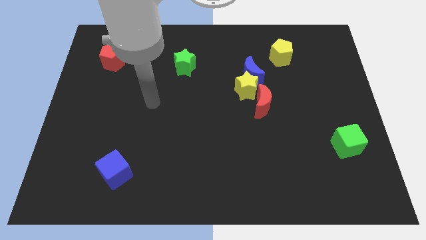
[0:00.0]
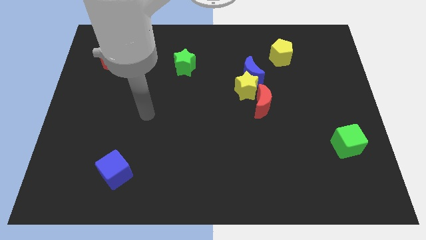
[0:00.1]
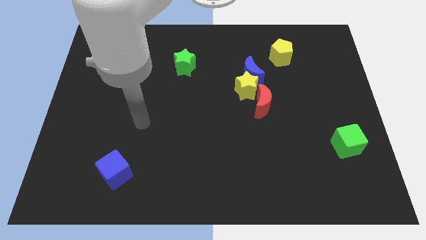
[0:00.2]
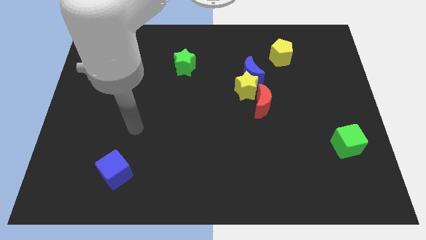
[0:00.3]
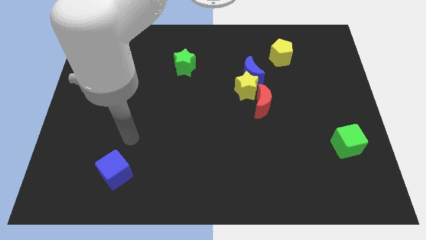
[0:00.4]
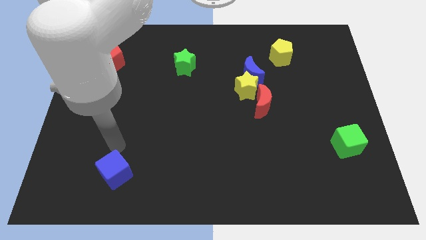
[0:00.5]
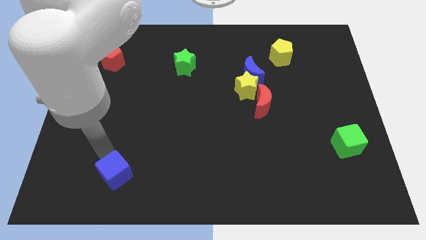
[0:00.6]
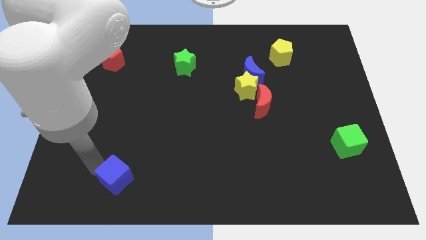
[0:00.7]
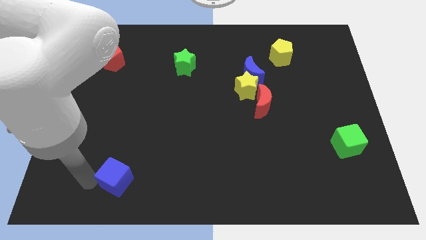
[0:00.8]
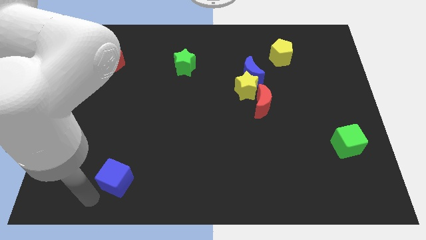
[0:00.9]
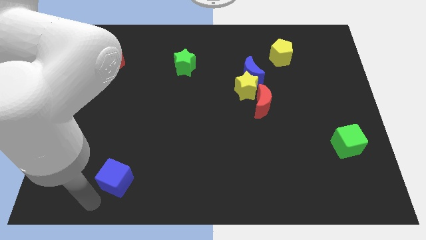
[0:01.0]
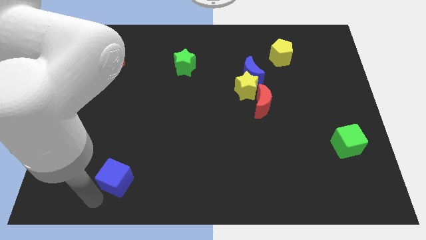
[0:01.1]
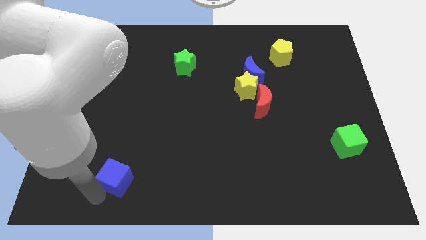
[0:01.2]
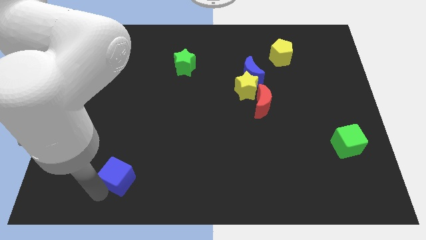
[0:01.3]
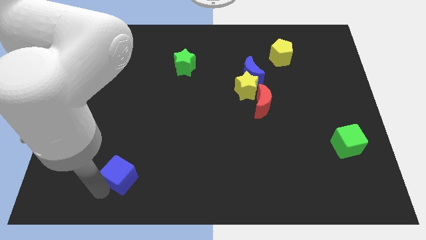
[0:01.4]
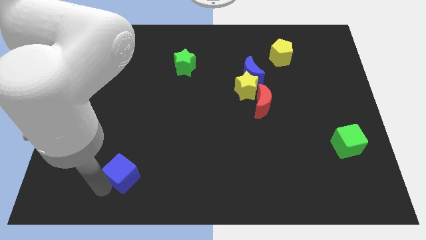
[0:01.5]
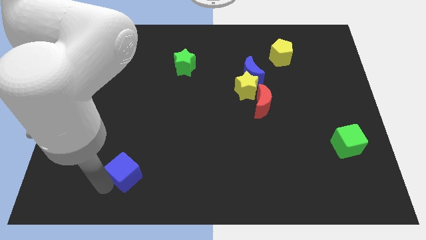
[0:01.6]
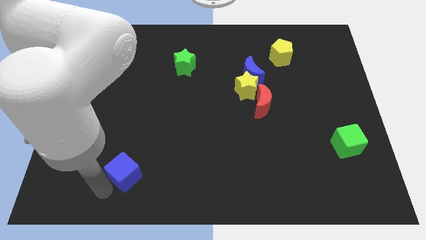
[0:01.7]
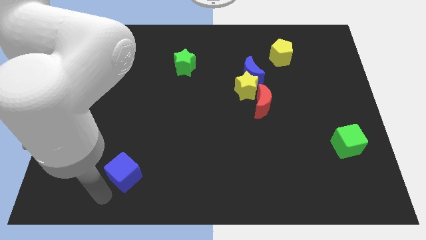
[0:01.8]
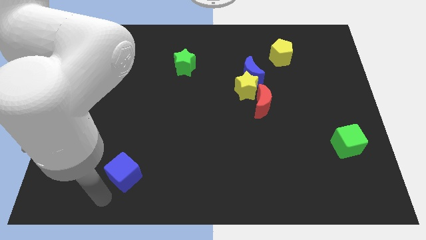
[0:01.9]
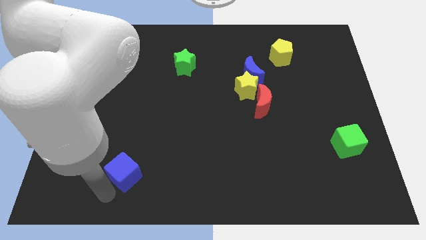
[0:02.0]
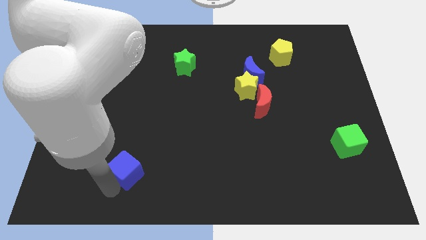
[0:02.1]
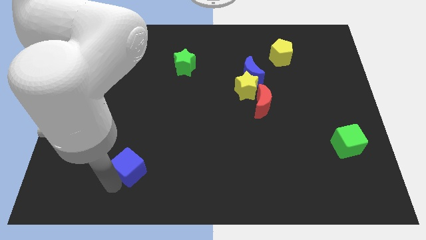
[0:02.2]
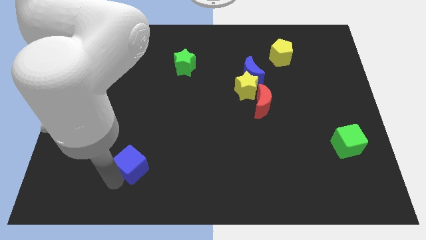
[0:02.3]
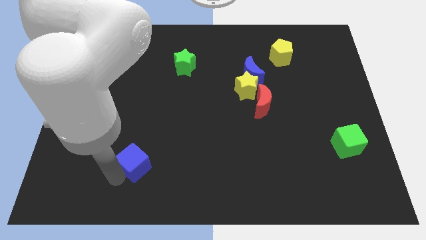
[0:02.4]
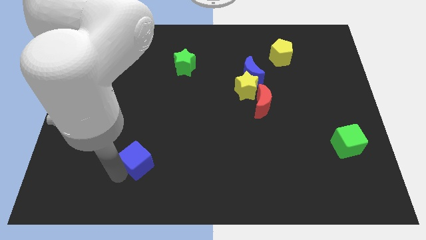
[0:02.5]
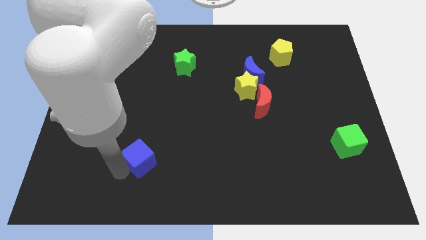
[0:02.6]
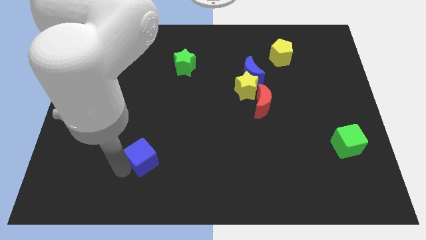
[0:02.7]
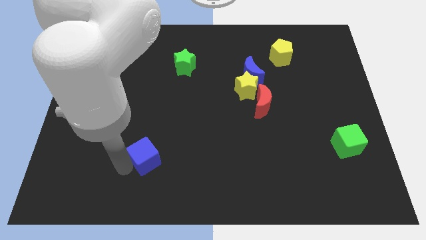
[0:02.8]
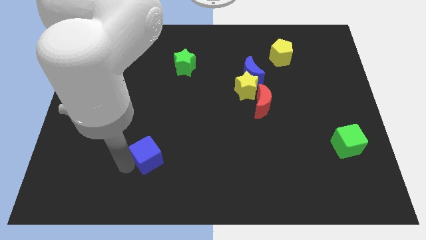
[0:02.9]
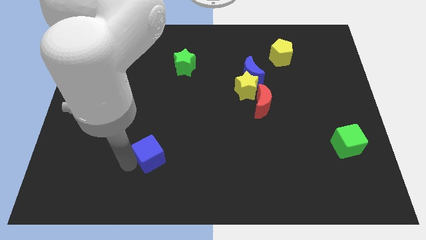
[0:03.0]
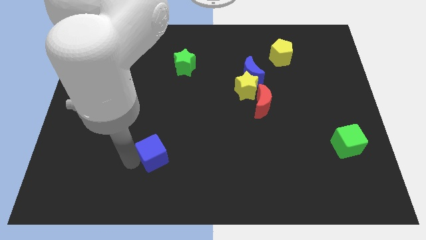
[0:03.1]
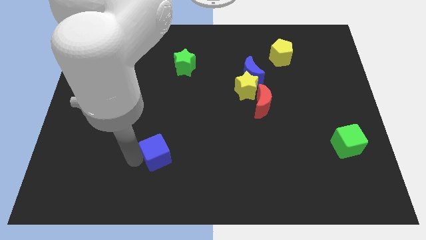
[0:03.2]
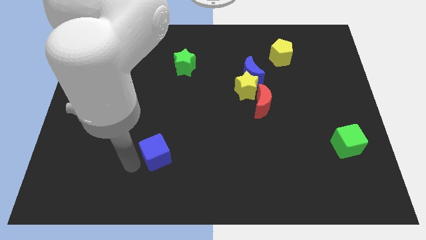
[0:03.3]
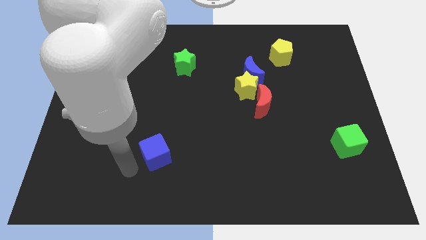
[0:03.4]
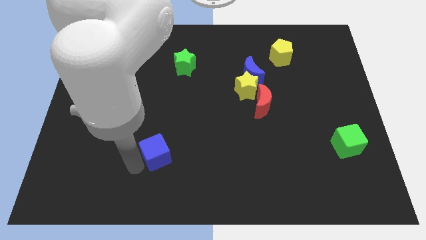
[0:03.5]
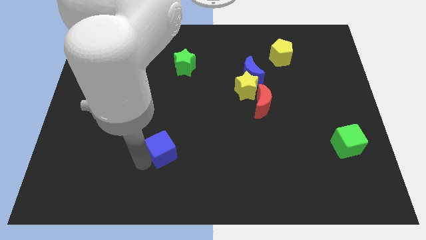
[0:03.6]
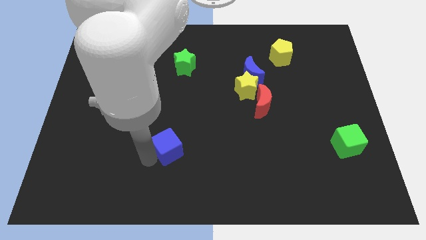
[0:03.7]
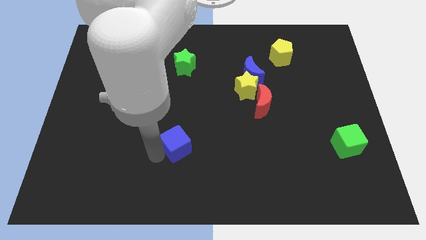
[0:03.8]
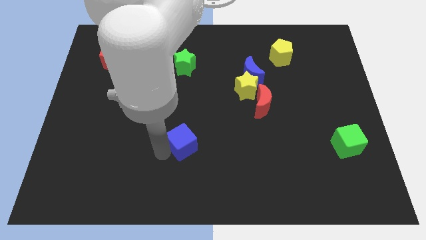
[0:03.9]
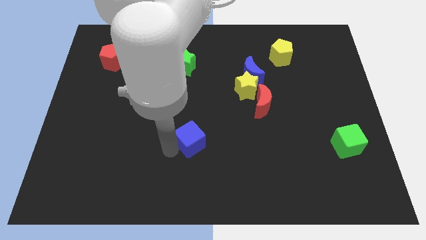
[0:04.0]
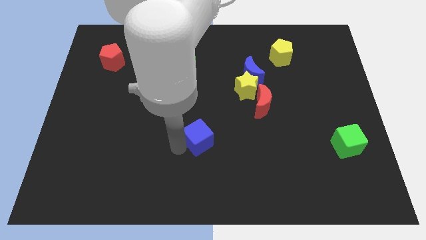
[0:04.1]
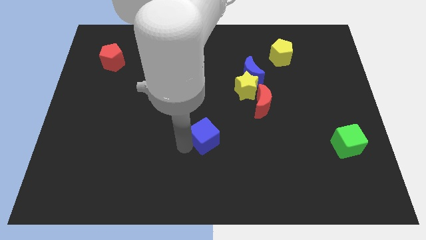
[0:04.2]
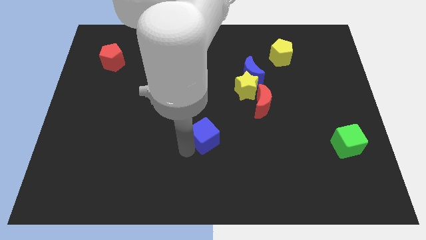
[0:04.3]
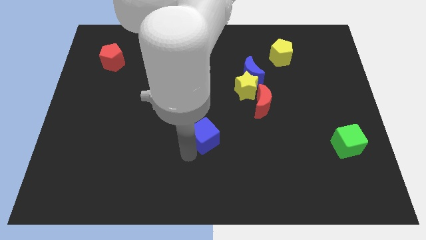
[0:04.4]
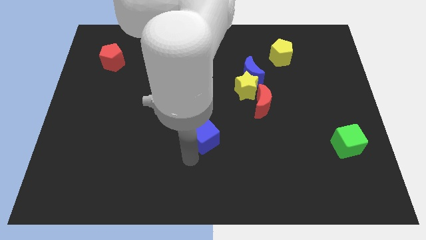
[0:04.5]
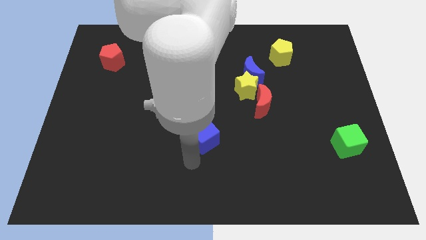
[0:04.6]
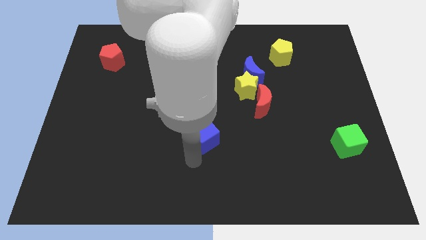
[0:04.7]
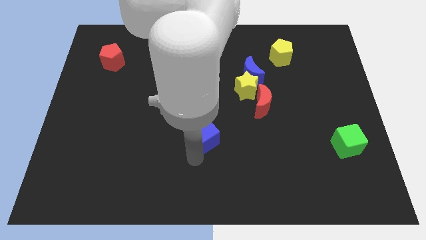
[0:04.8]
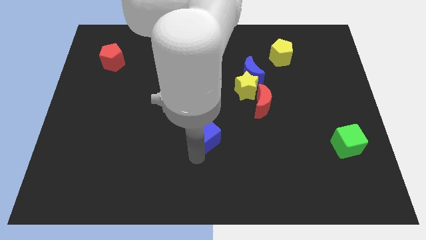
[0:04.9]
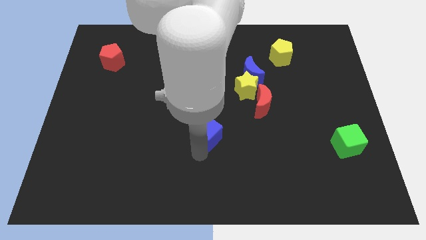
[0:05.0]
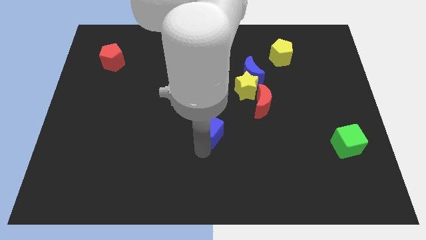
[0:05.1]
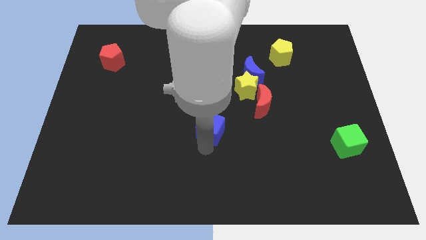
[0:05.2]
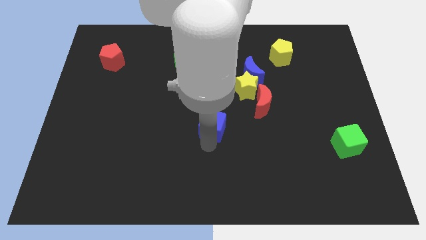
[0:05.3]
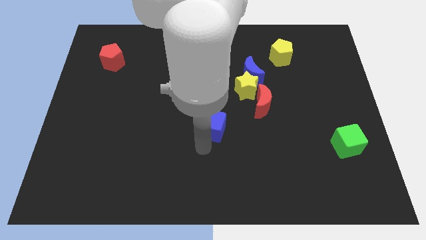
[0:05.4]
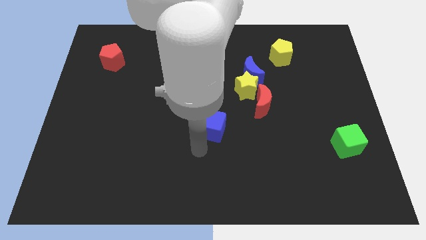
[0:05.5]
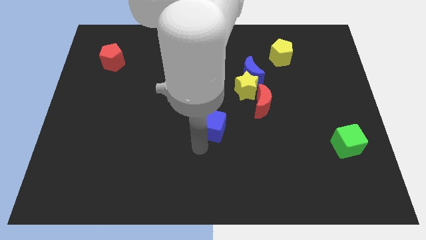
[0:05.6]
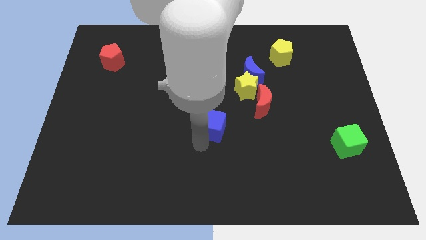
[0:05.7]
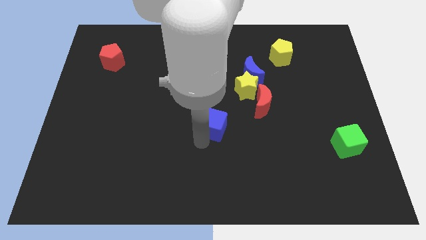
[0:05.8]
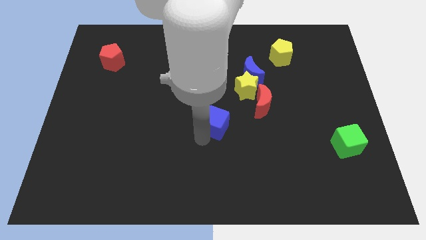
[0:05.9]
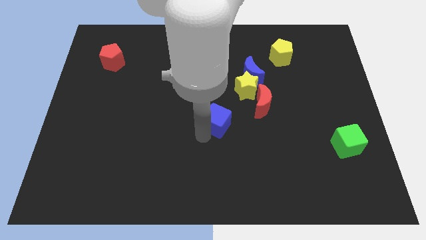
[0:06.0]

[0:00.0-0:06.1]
slide the blue cube diagonally down and to the left of the yellow star

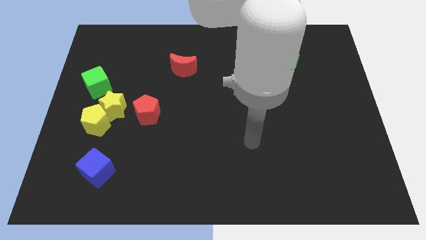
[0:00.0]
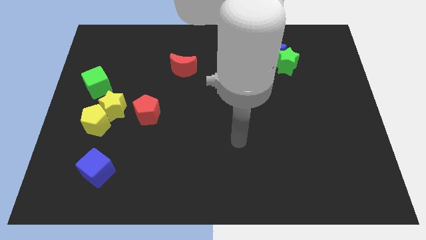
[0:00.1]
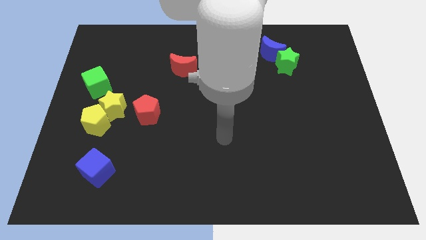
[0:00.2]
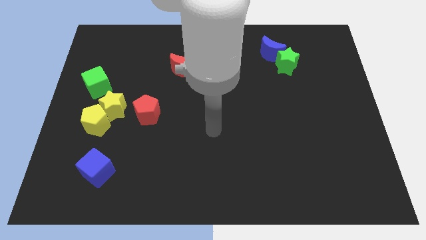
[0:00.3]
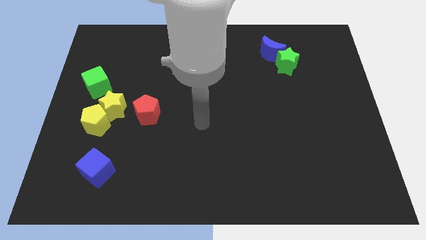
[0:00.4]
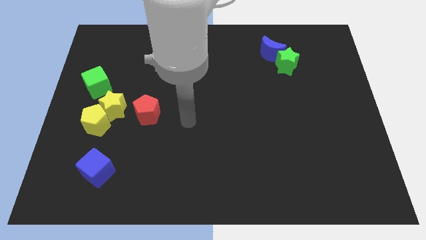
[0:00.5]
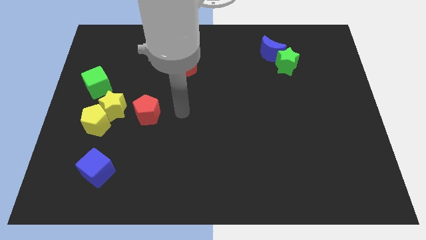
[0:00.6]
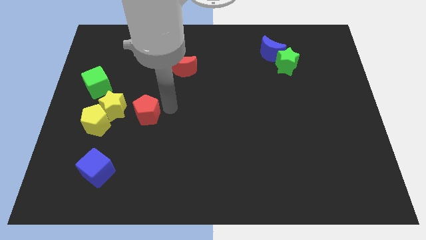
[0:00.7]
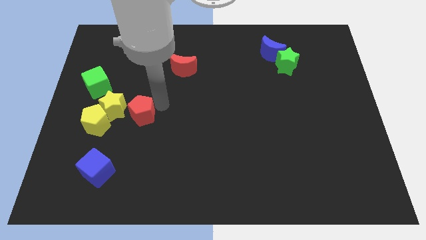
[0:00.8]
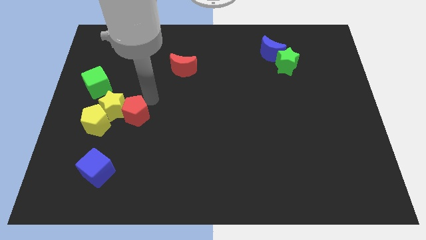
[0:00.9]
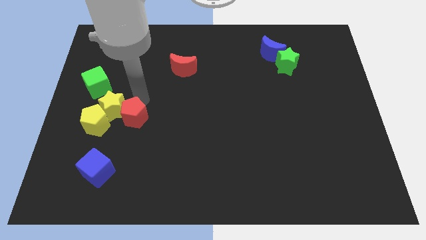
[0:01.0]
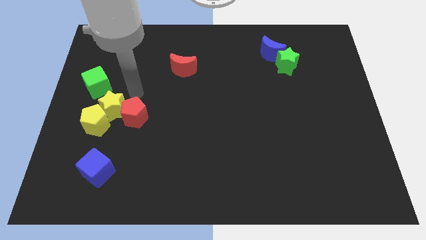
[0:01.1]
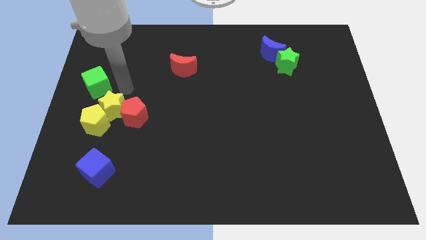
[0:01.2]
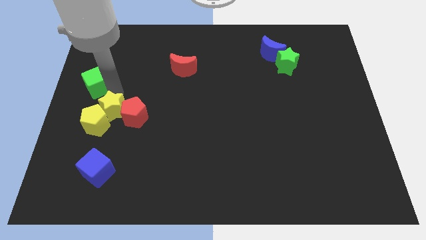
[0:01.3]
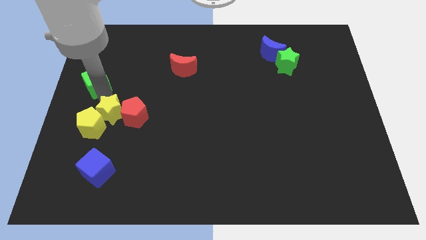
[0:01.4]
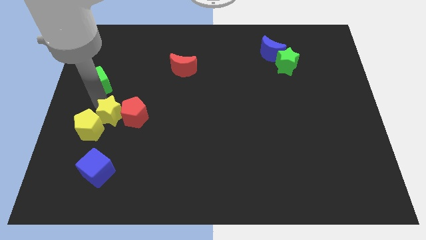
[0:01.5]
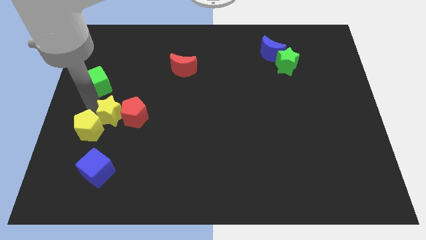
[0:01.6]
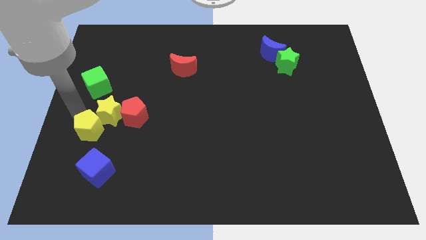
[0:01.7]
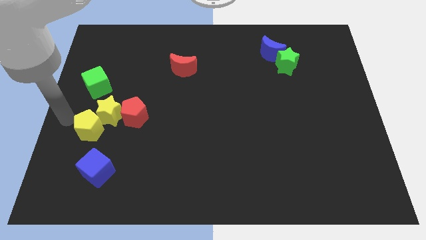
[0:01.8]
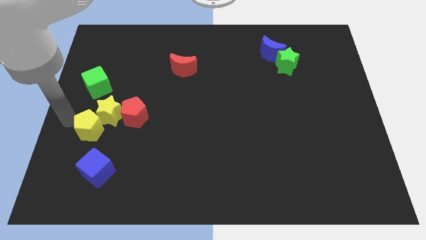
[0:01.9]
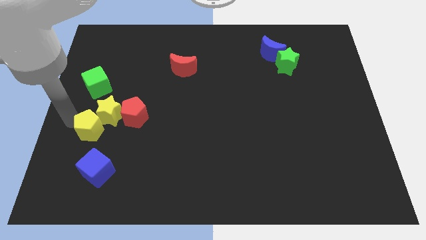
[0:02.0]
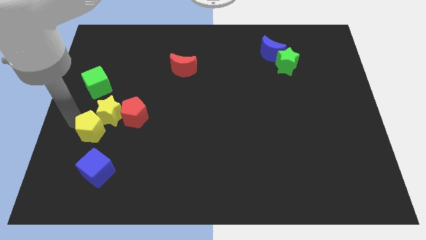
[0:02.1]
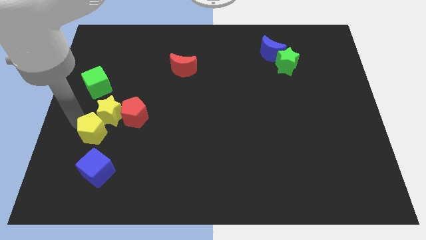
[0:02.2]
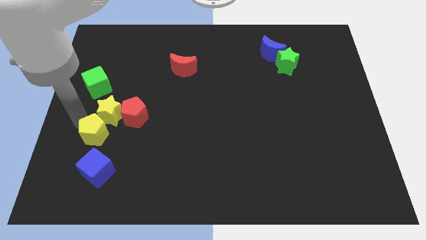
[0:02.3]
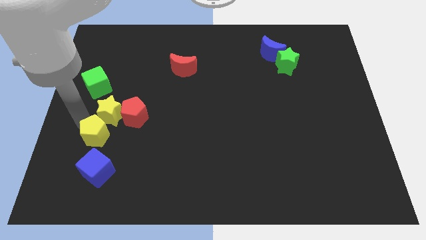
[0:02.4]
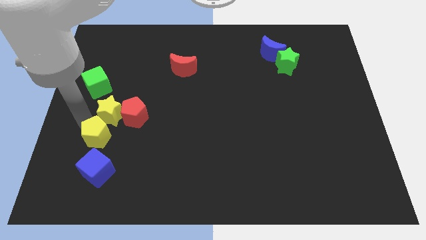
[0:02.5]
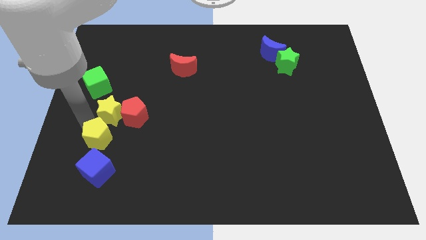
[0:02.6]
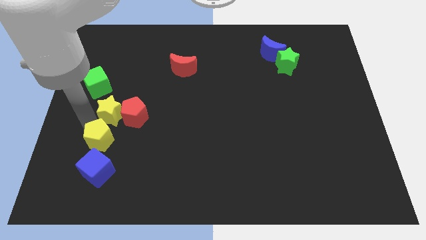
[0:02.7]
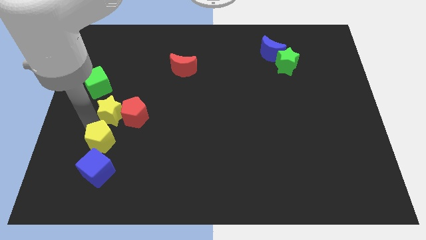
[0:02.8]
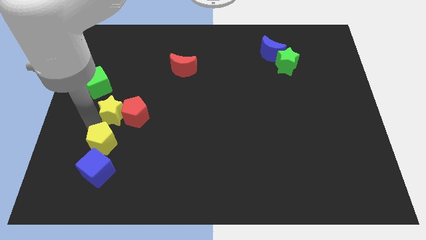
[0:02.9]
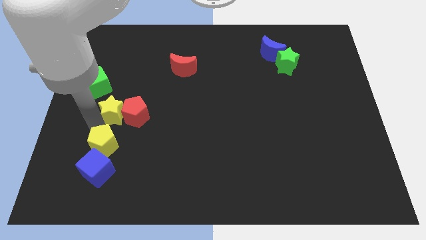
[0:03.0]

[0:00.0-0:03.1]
move the yellow pentagon diagonally up and to the right of the blue cube
